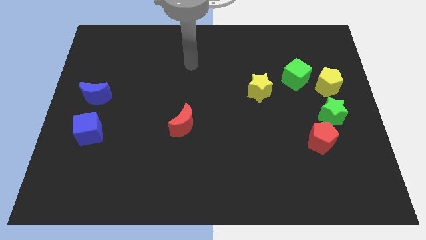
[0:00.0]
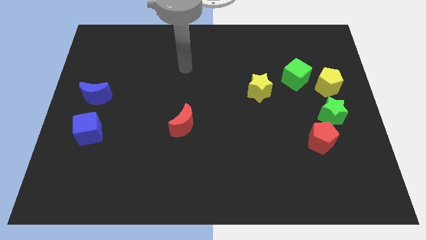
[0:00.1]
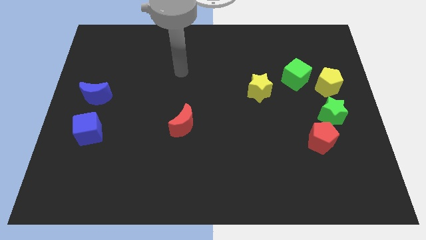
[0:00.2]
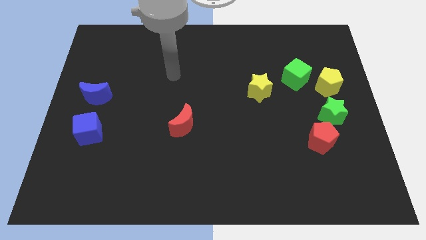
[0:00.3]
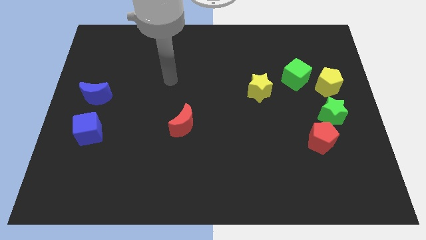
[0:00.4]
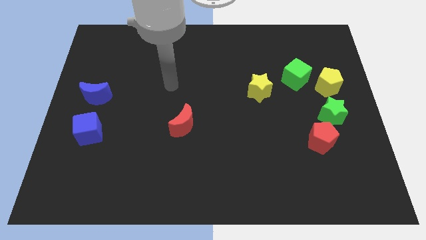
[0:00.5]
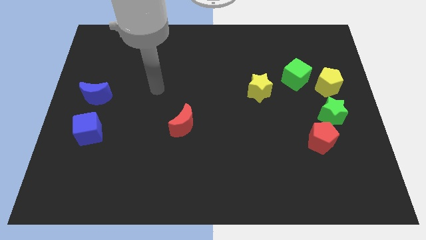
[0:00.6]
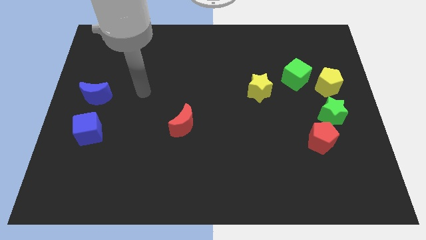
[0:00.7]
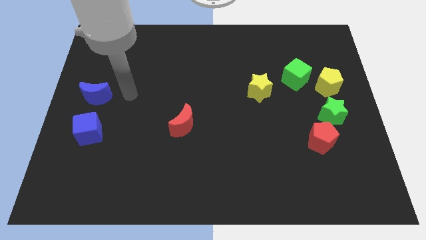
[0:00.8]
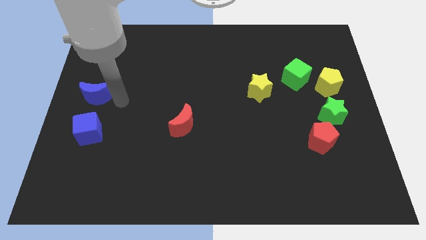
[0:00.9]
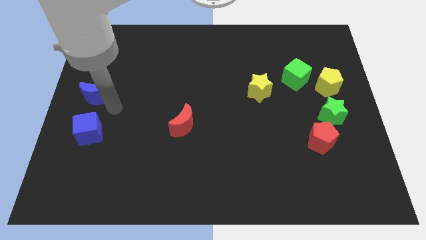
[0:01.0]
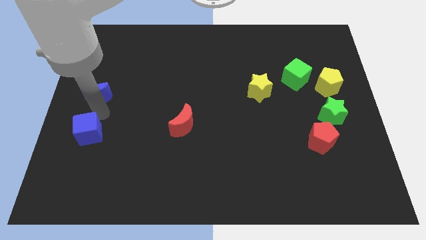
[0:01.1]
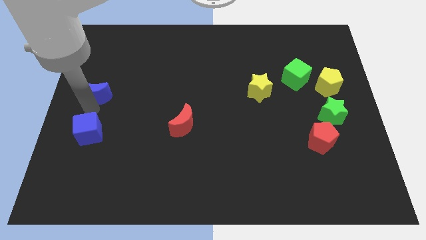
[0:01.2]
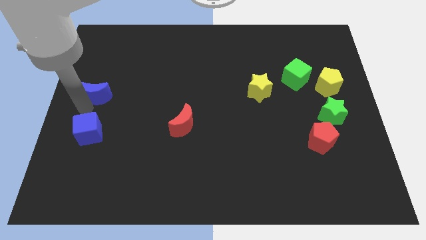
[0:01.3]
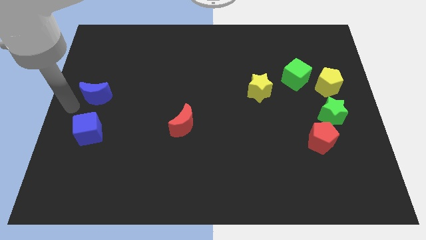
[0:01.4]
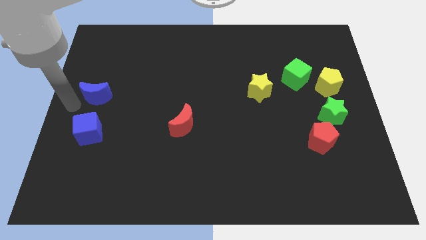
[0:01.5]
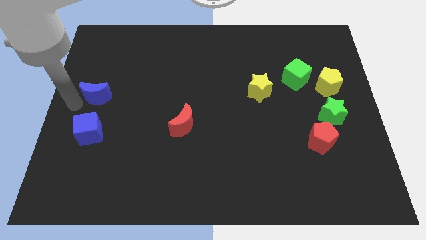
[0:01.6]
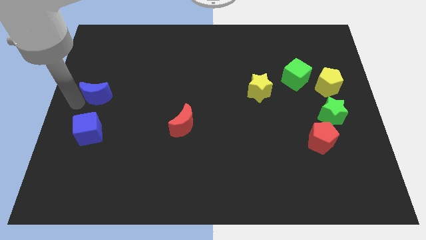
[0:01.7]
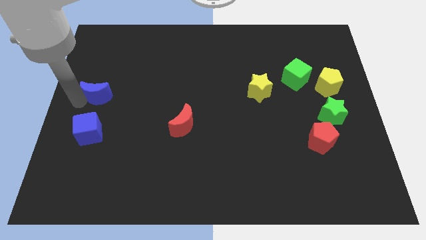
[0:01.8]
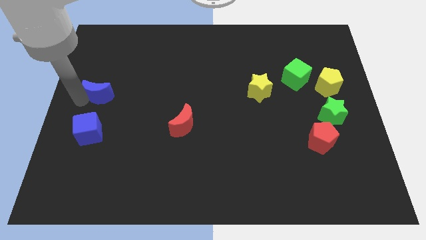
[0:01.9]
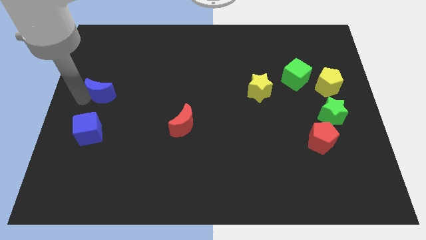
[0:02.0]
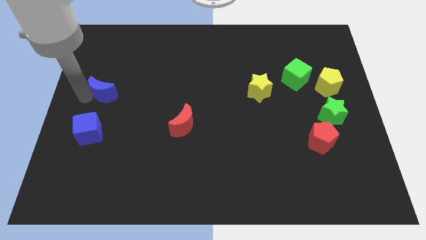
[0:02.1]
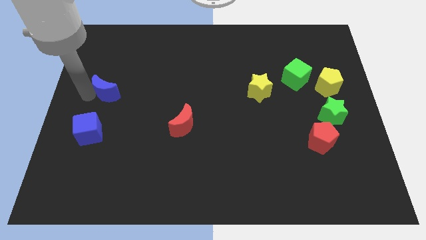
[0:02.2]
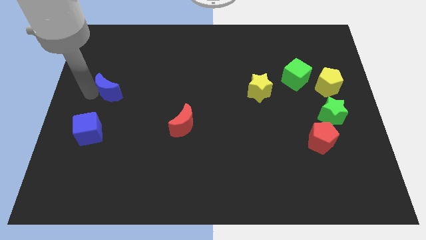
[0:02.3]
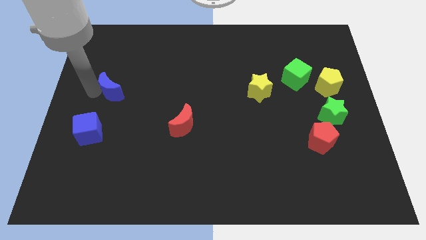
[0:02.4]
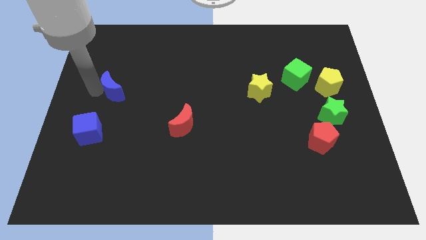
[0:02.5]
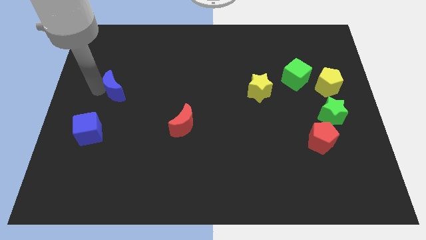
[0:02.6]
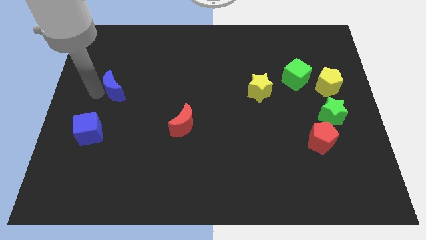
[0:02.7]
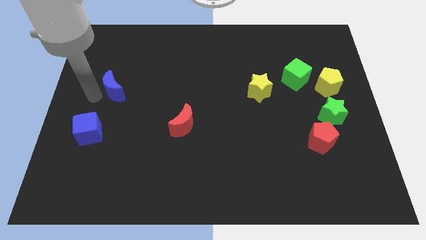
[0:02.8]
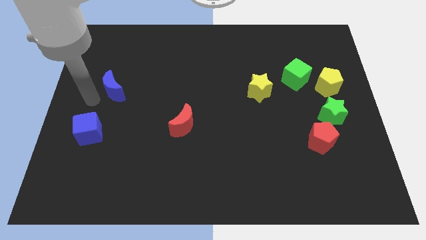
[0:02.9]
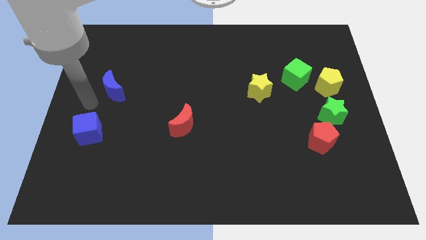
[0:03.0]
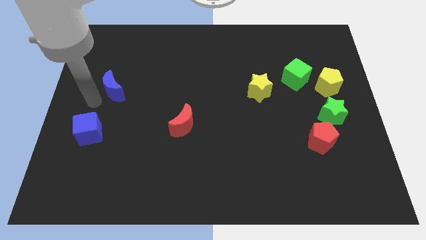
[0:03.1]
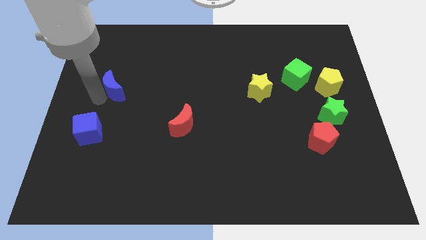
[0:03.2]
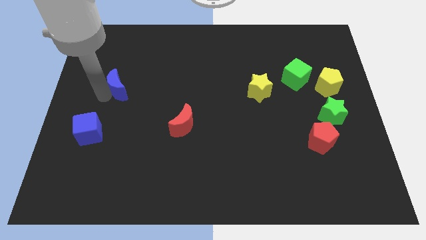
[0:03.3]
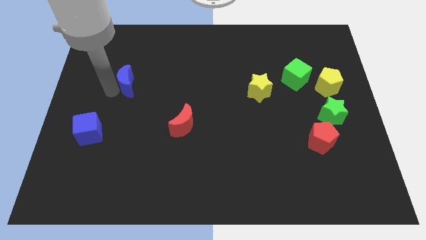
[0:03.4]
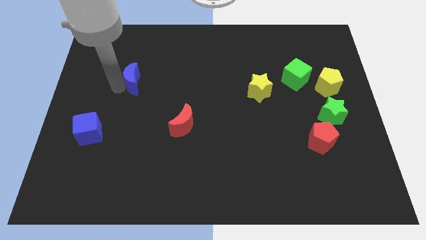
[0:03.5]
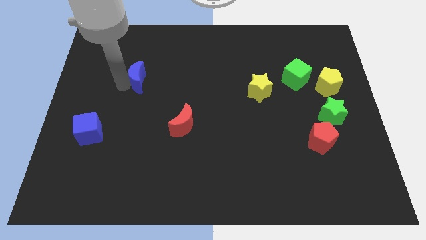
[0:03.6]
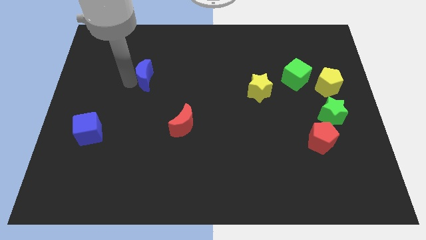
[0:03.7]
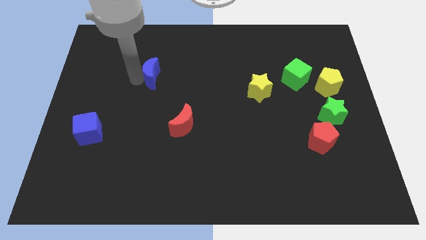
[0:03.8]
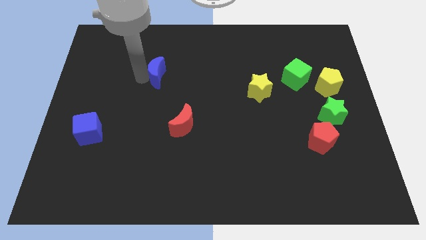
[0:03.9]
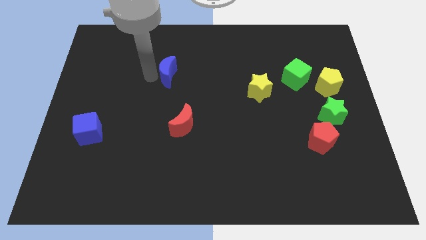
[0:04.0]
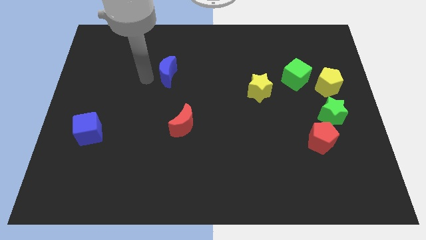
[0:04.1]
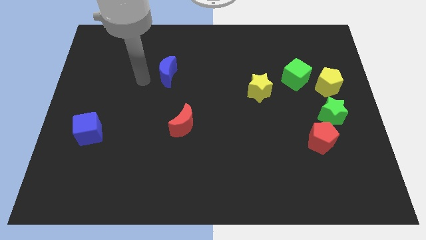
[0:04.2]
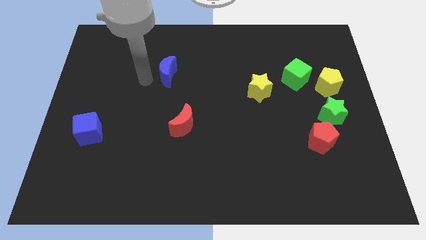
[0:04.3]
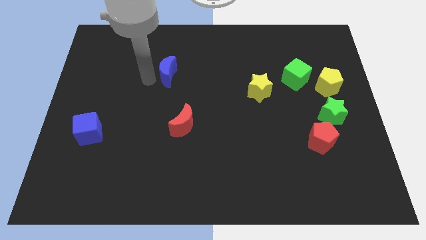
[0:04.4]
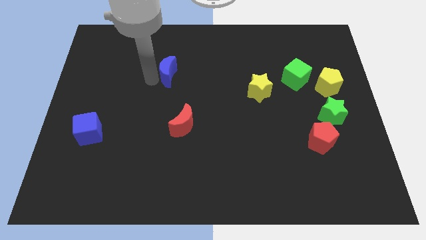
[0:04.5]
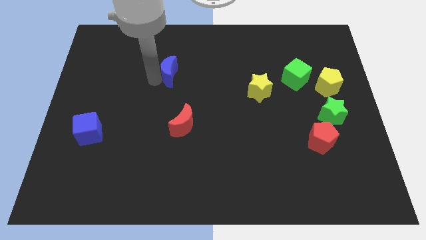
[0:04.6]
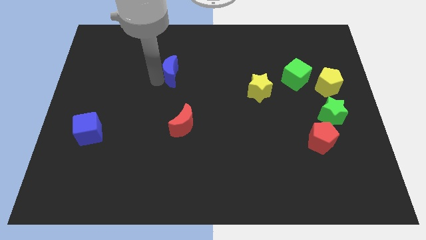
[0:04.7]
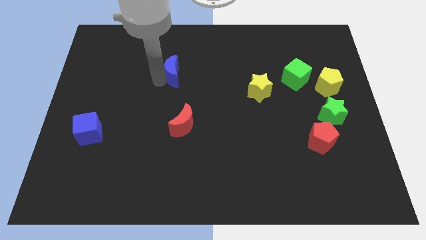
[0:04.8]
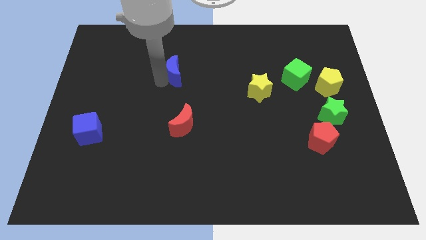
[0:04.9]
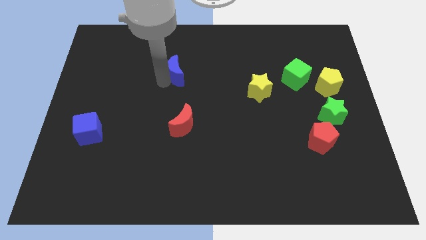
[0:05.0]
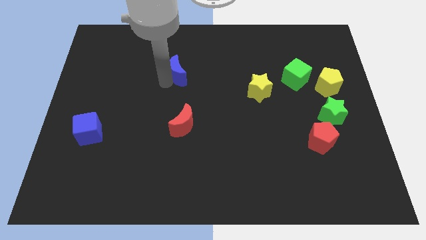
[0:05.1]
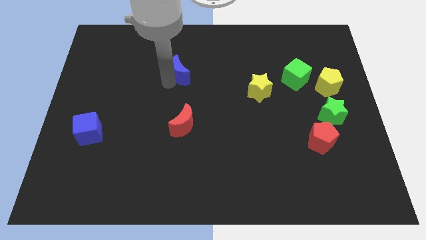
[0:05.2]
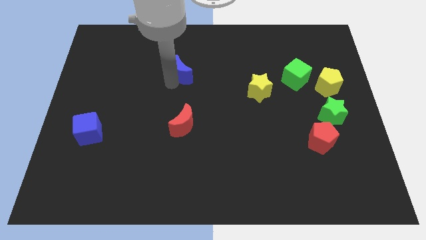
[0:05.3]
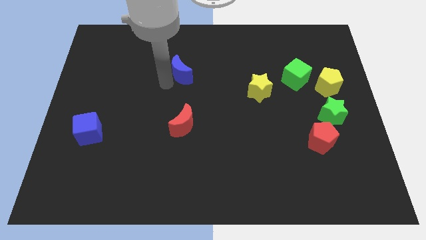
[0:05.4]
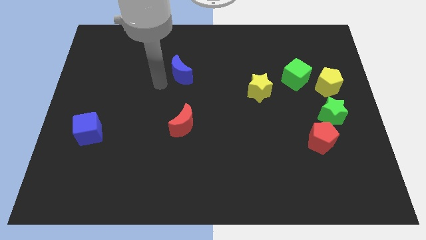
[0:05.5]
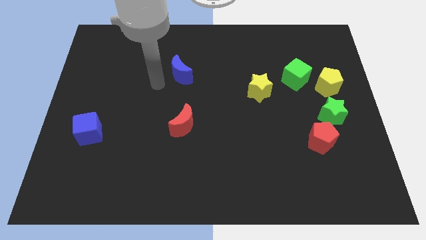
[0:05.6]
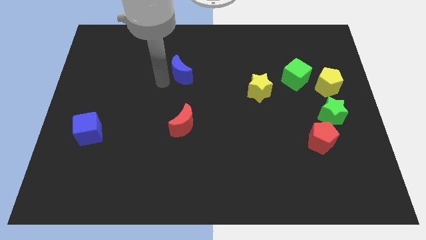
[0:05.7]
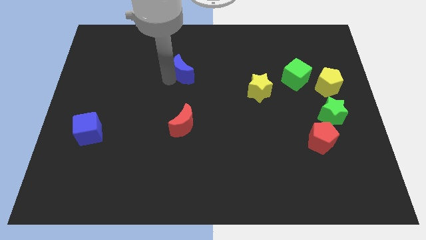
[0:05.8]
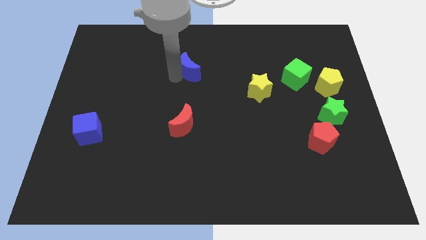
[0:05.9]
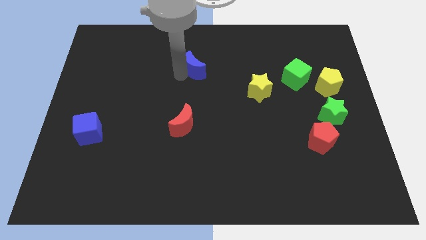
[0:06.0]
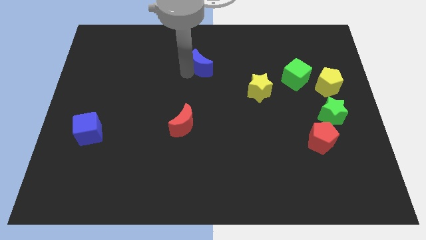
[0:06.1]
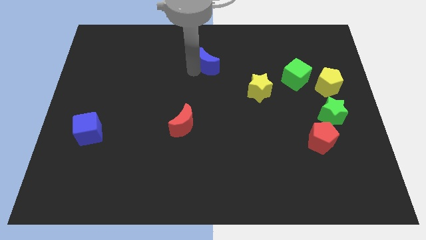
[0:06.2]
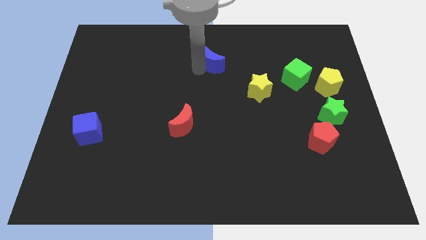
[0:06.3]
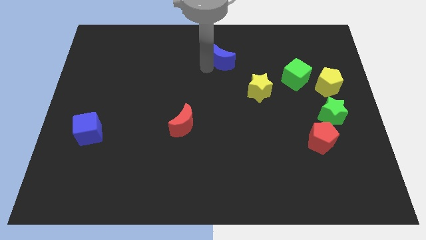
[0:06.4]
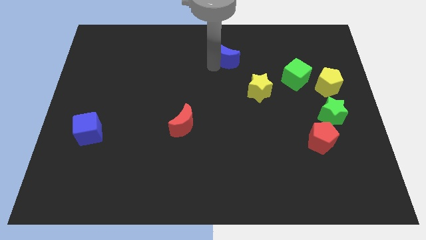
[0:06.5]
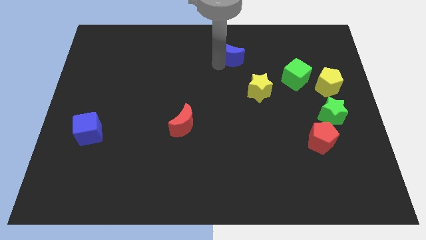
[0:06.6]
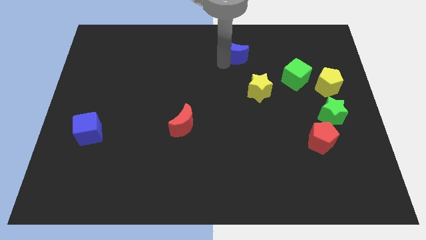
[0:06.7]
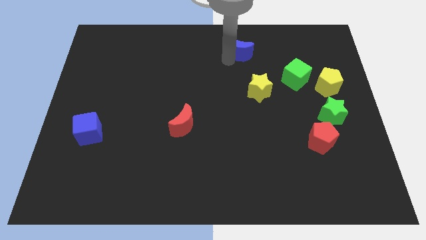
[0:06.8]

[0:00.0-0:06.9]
push the blue moon to the towards your base

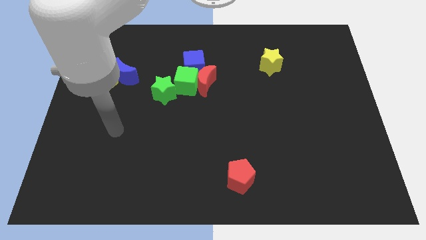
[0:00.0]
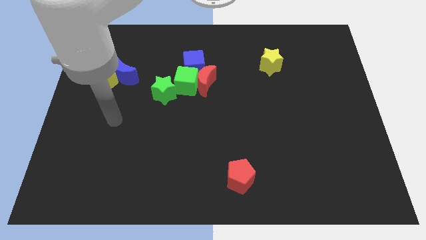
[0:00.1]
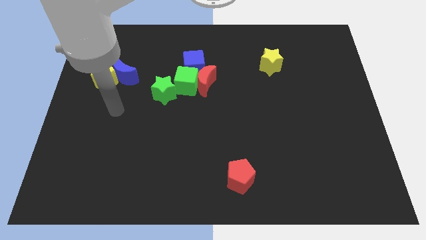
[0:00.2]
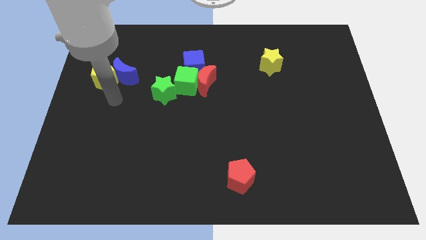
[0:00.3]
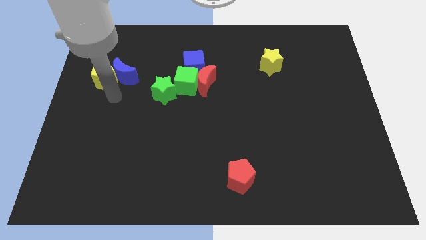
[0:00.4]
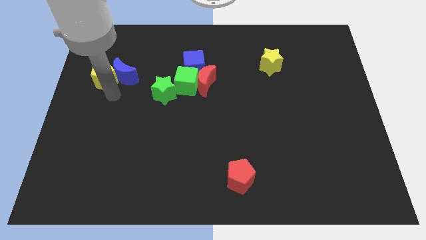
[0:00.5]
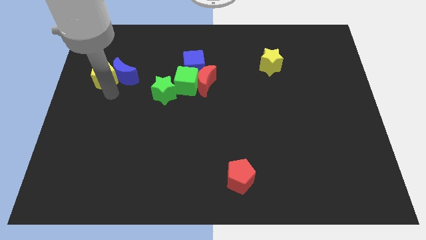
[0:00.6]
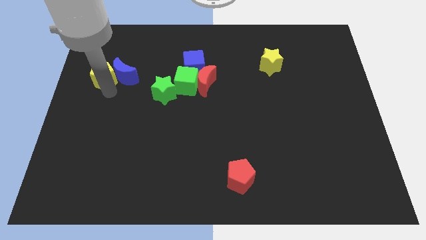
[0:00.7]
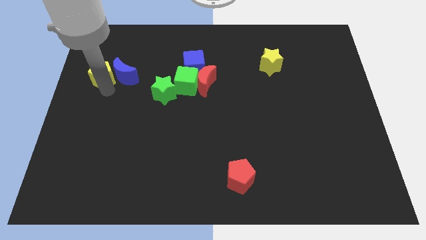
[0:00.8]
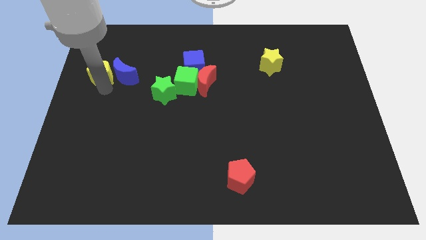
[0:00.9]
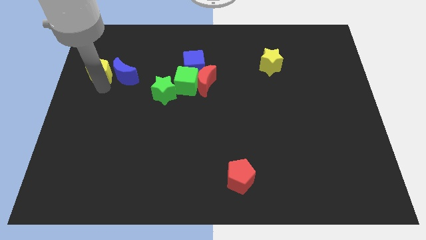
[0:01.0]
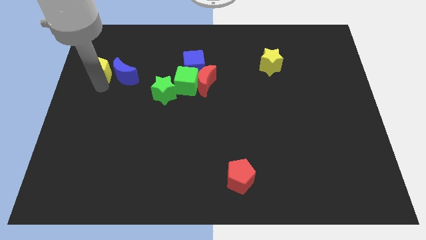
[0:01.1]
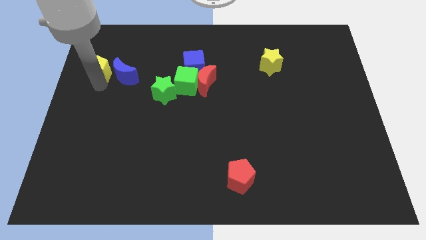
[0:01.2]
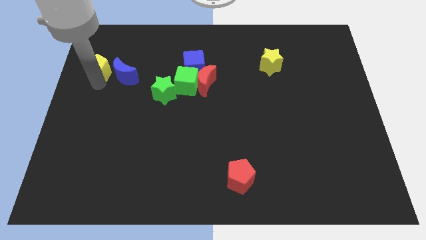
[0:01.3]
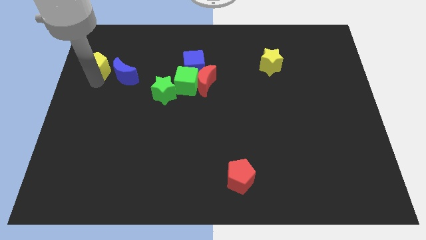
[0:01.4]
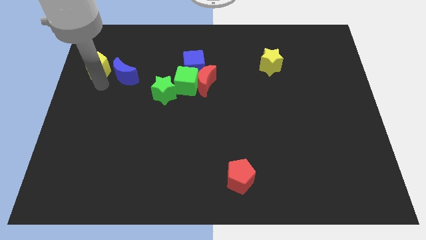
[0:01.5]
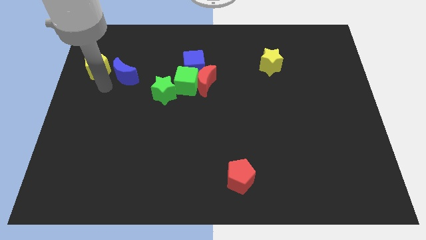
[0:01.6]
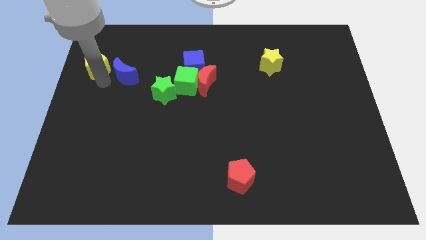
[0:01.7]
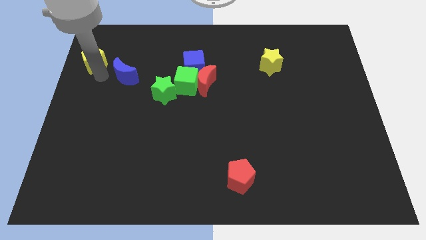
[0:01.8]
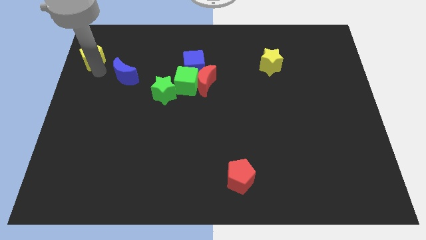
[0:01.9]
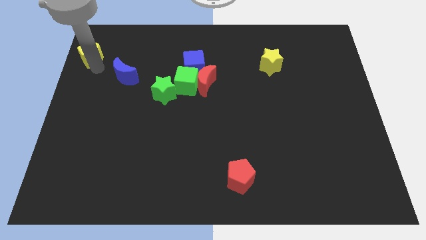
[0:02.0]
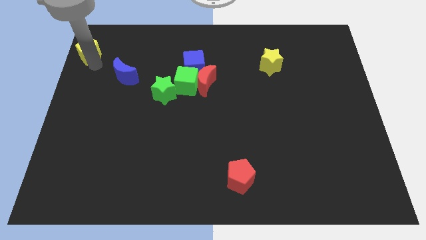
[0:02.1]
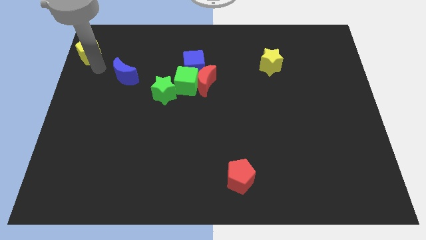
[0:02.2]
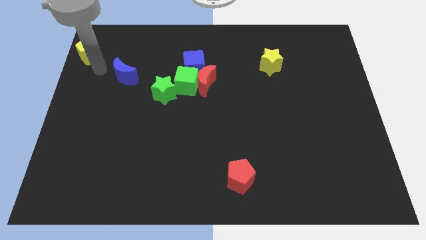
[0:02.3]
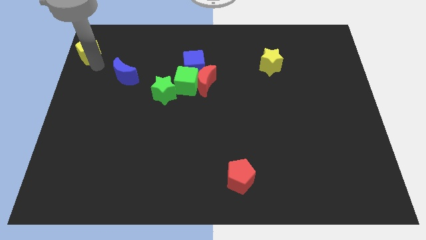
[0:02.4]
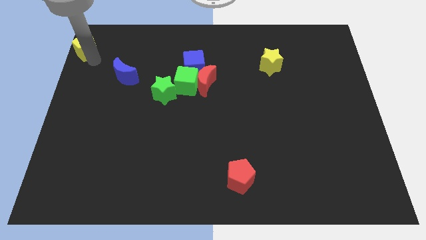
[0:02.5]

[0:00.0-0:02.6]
move the yellow pentagon to the top left
